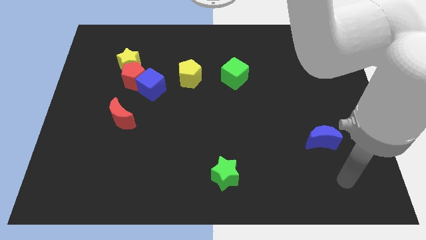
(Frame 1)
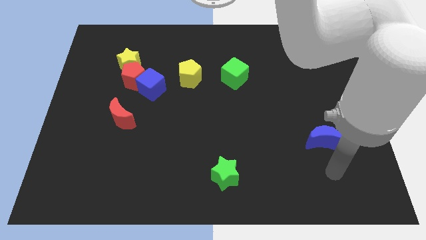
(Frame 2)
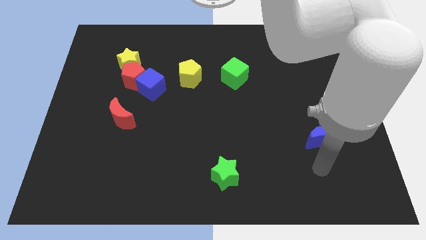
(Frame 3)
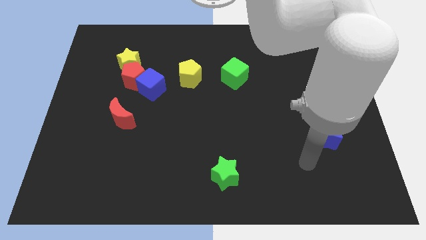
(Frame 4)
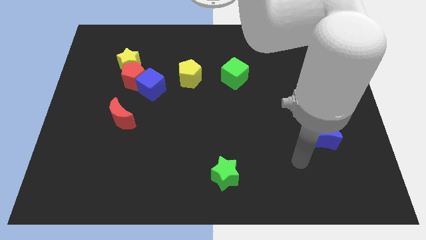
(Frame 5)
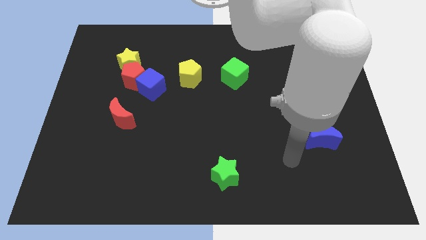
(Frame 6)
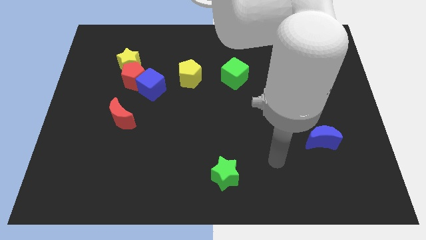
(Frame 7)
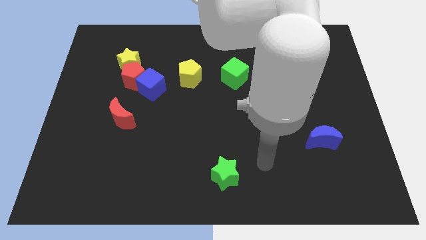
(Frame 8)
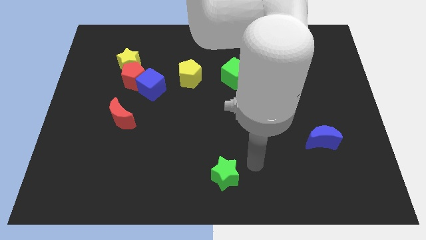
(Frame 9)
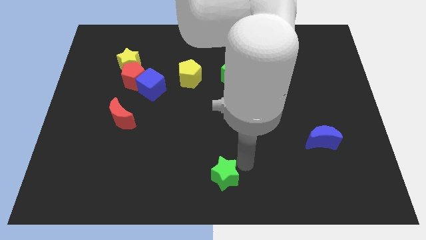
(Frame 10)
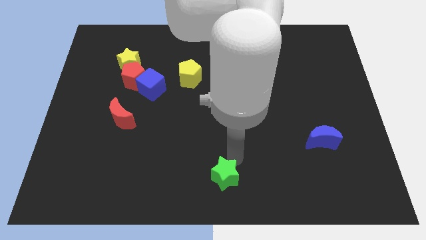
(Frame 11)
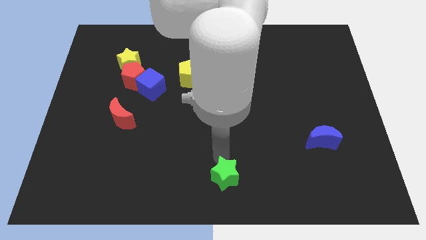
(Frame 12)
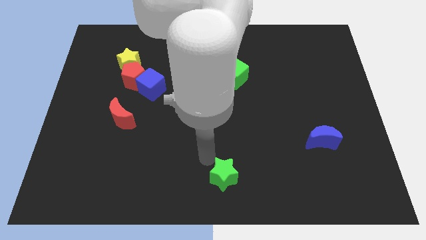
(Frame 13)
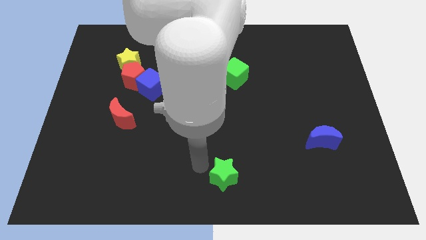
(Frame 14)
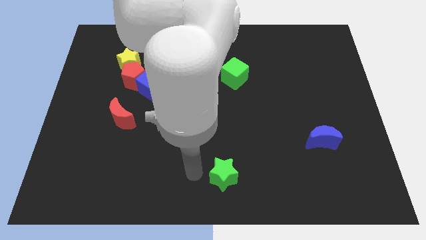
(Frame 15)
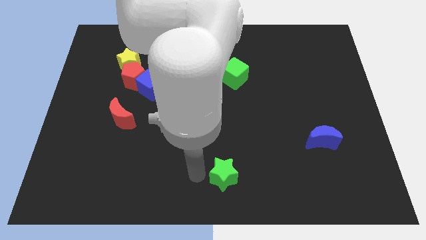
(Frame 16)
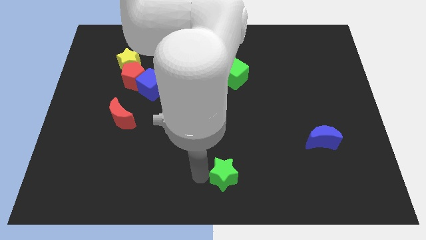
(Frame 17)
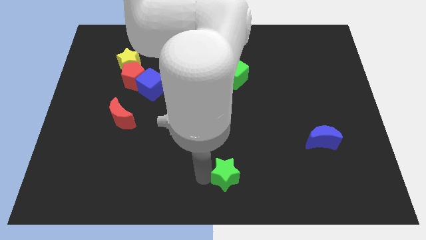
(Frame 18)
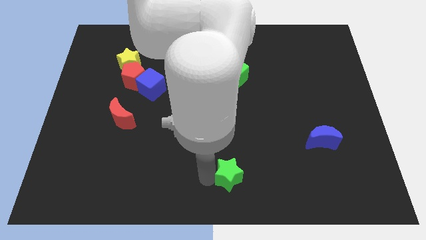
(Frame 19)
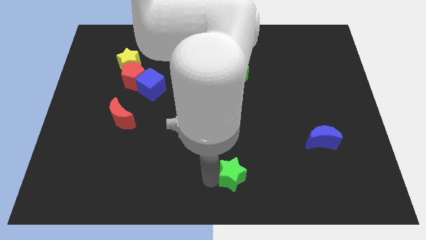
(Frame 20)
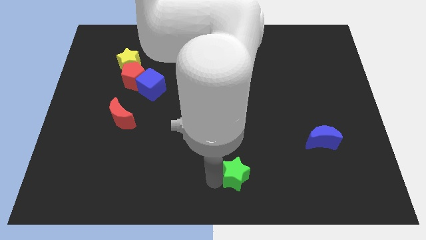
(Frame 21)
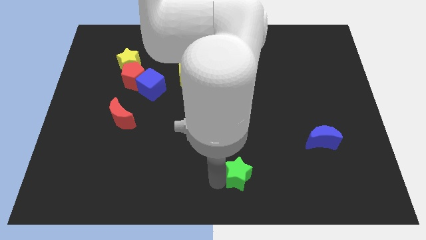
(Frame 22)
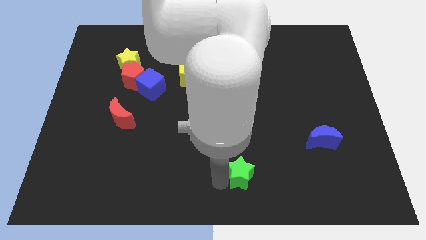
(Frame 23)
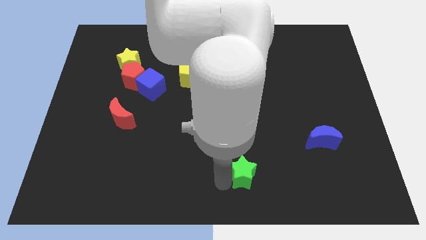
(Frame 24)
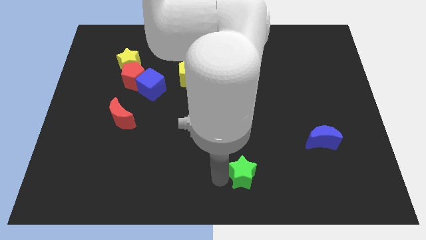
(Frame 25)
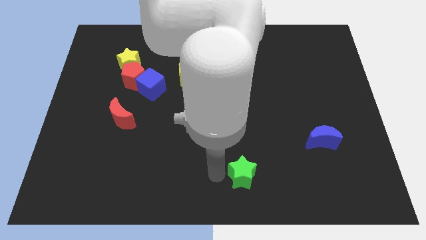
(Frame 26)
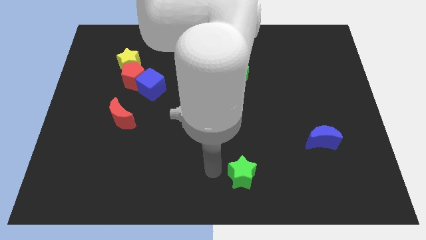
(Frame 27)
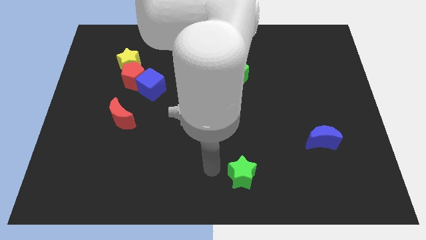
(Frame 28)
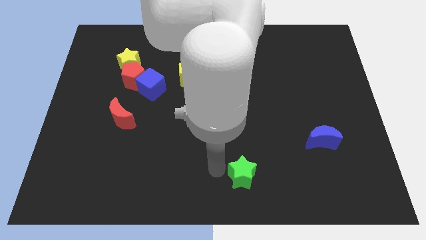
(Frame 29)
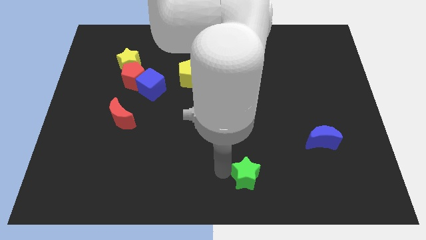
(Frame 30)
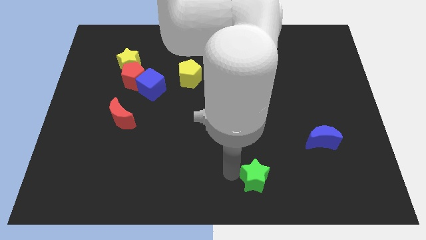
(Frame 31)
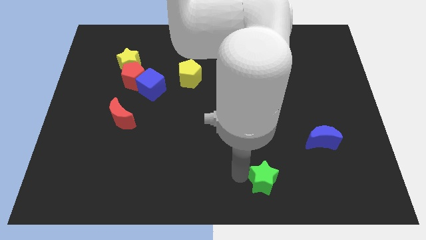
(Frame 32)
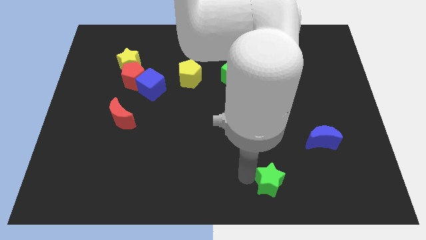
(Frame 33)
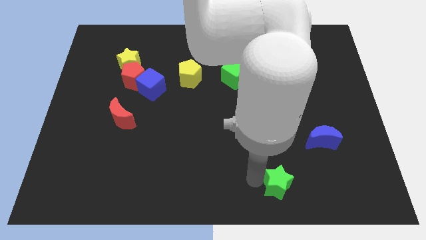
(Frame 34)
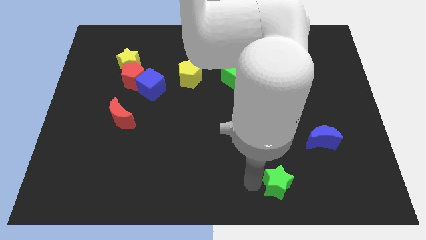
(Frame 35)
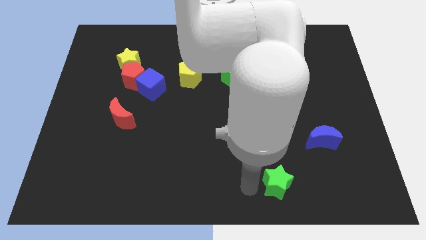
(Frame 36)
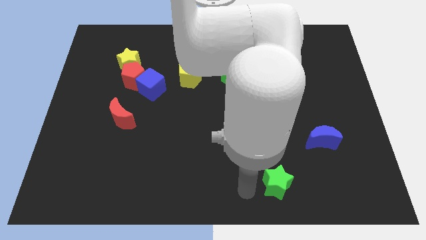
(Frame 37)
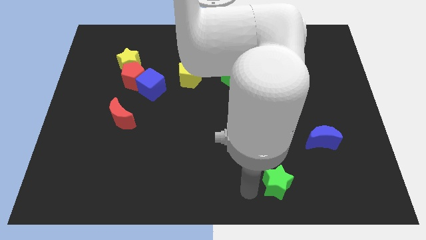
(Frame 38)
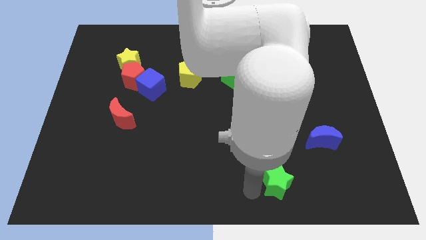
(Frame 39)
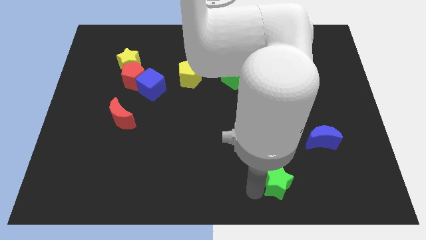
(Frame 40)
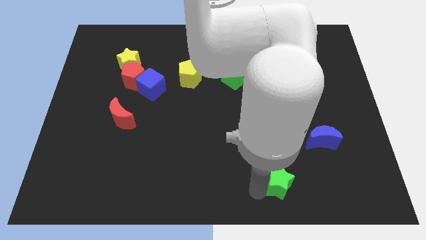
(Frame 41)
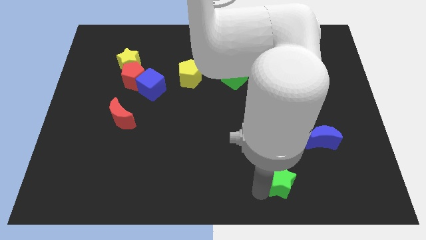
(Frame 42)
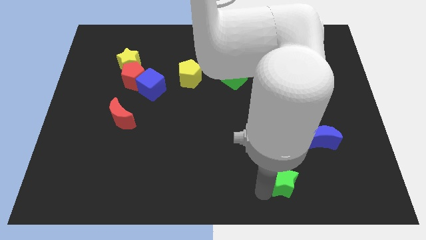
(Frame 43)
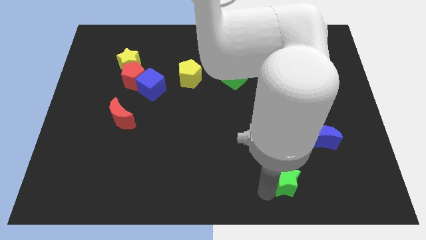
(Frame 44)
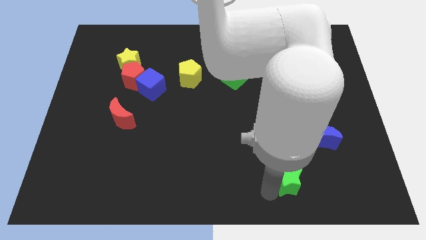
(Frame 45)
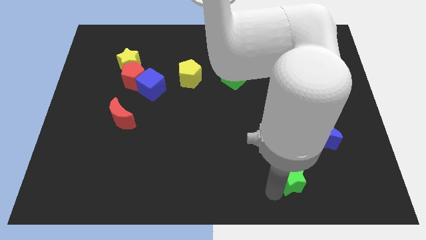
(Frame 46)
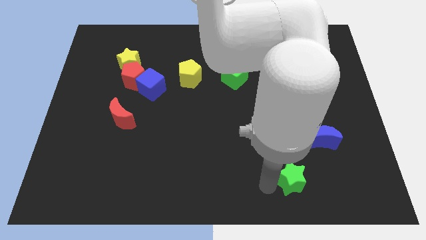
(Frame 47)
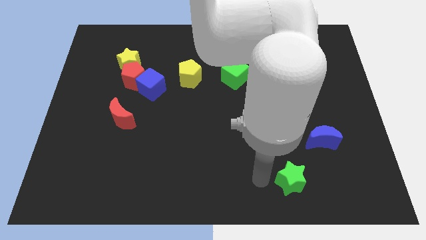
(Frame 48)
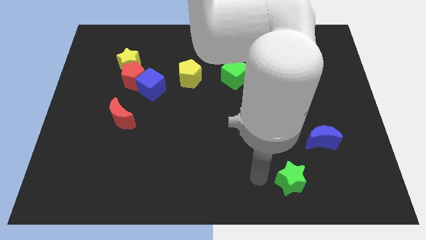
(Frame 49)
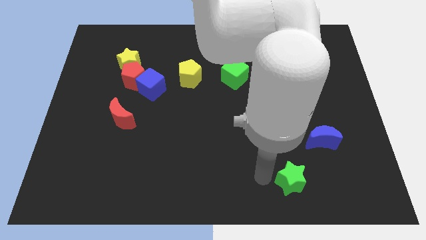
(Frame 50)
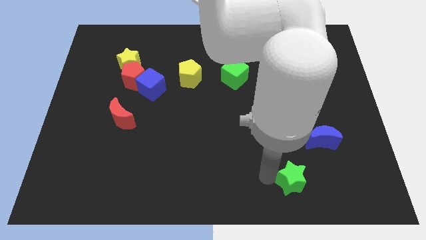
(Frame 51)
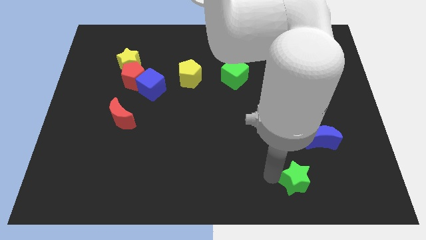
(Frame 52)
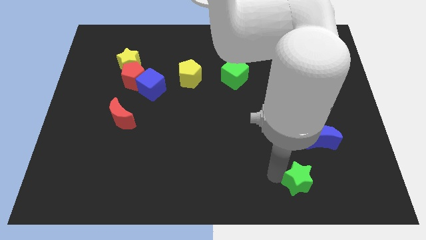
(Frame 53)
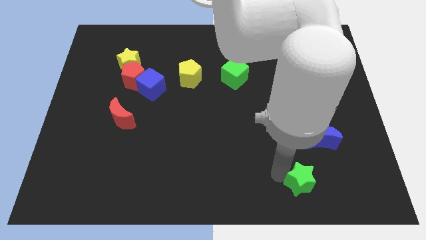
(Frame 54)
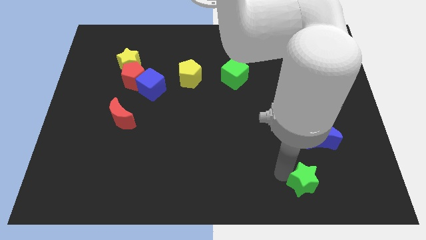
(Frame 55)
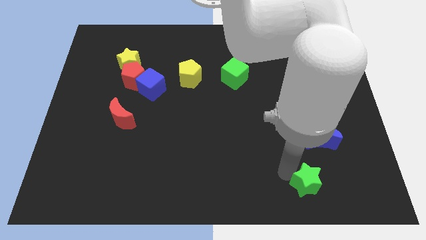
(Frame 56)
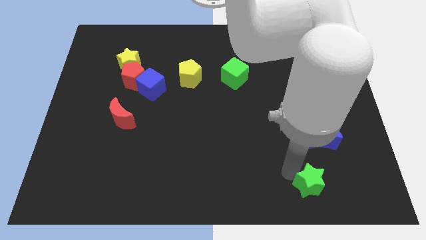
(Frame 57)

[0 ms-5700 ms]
move the green star to the bottom of the blue moon

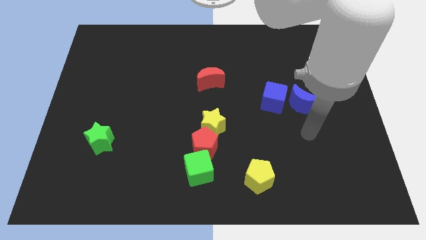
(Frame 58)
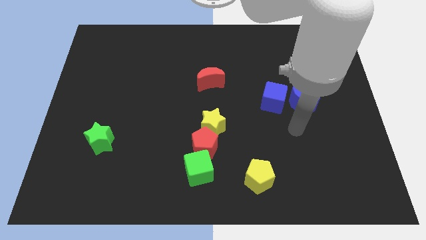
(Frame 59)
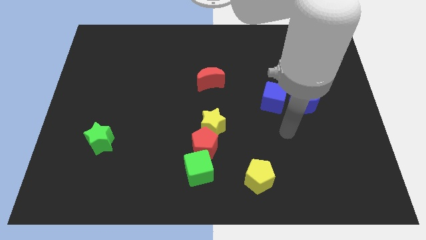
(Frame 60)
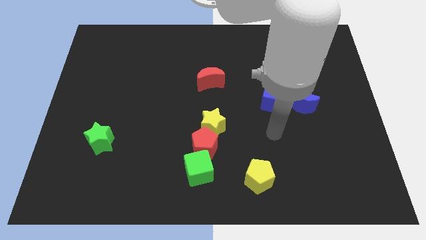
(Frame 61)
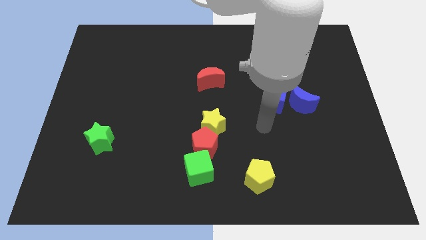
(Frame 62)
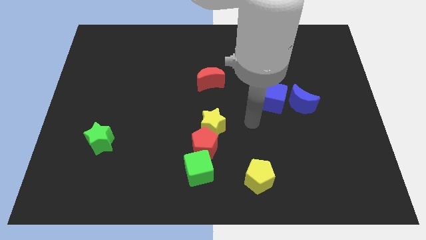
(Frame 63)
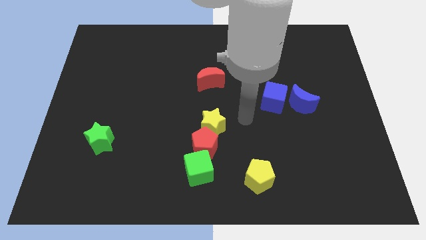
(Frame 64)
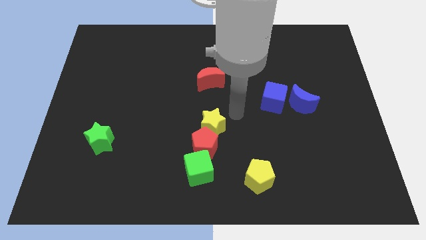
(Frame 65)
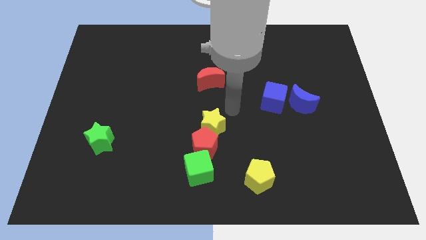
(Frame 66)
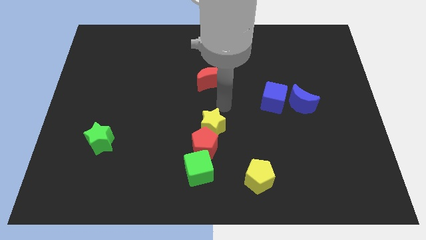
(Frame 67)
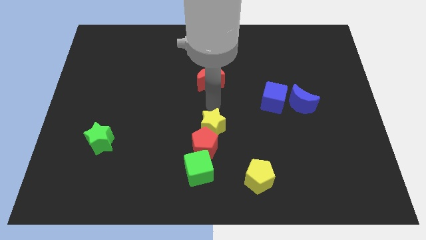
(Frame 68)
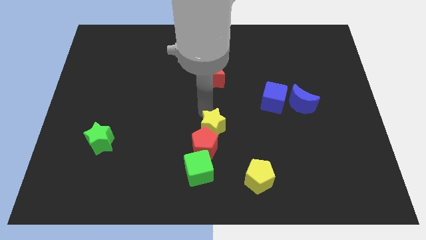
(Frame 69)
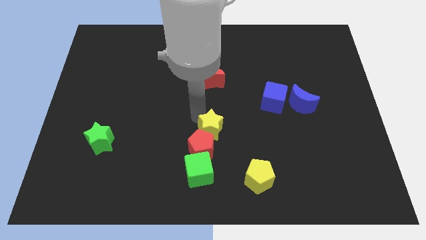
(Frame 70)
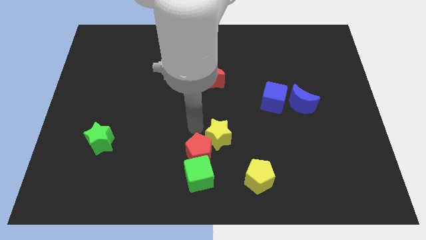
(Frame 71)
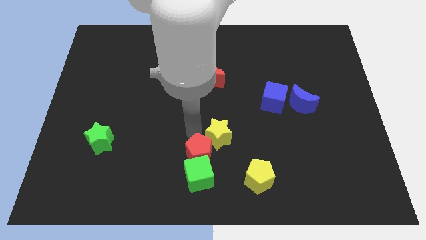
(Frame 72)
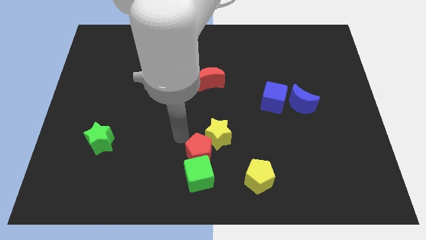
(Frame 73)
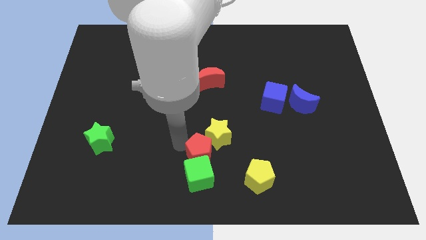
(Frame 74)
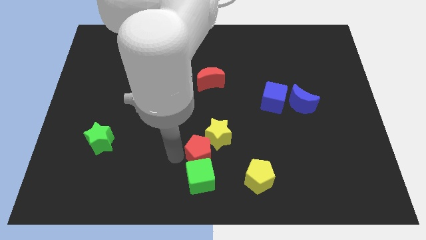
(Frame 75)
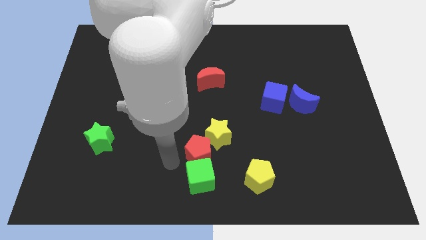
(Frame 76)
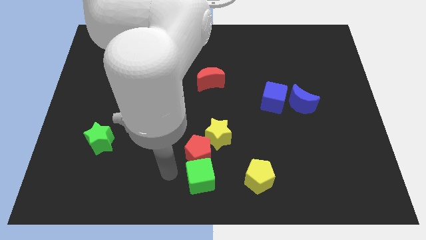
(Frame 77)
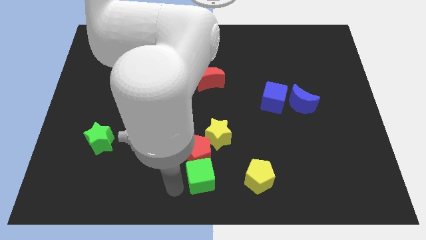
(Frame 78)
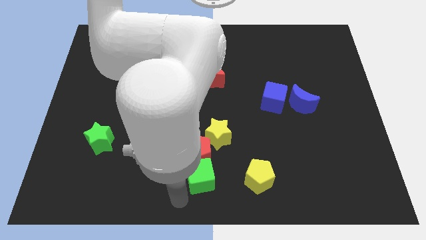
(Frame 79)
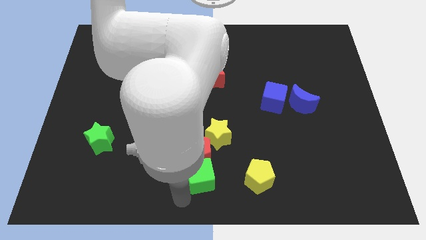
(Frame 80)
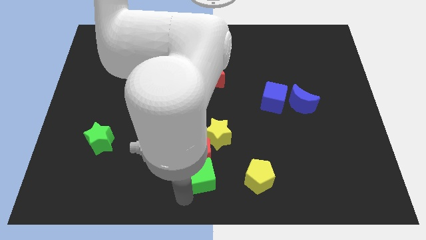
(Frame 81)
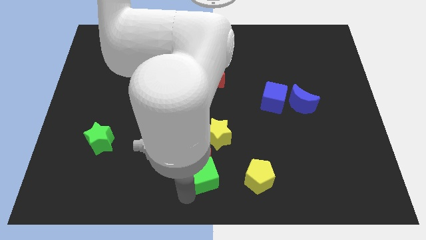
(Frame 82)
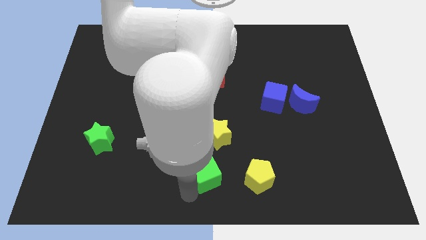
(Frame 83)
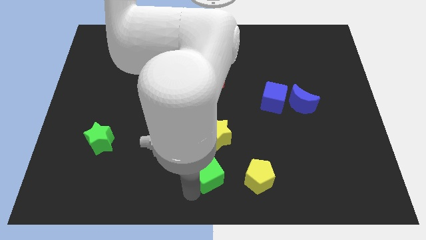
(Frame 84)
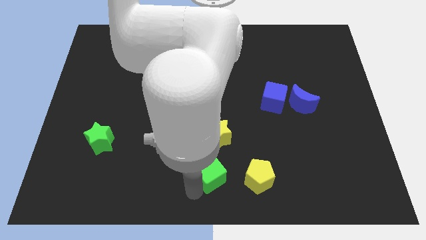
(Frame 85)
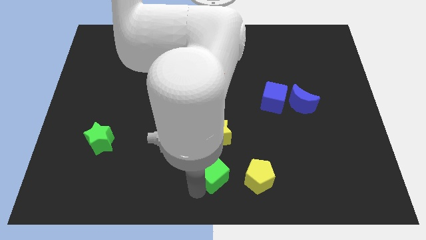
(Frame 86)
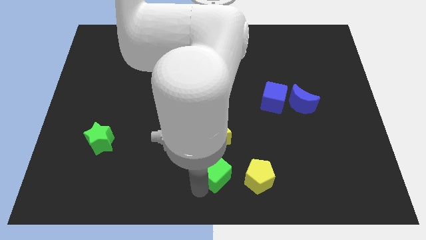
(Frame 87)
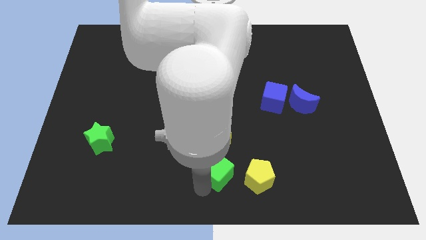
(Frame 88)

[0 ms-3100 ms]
move the green cube to the right of the red pentagon
